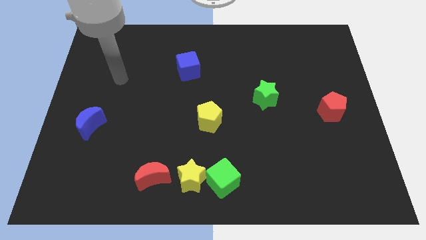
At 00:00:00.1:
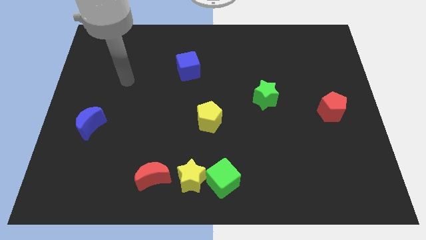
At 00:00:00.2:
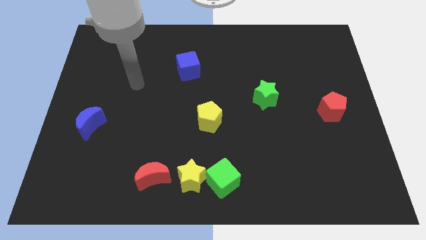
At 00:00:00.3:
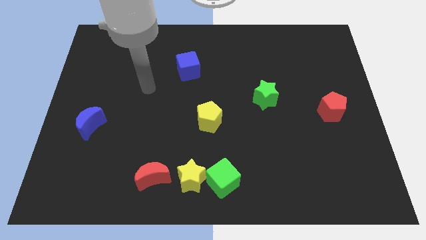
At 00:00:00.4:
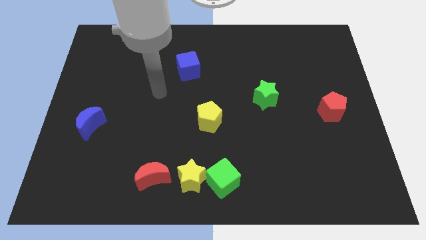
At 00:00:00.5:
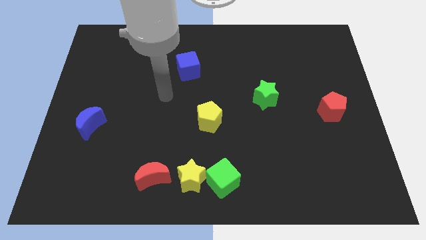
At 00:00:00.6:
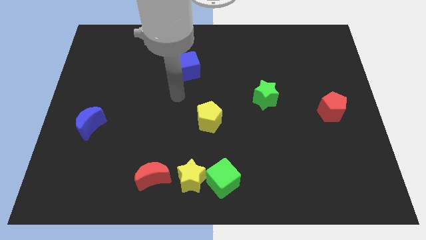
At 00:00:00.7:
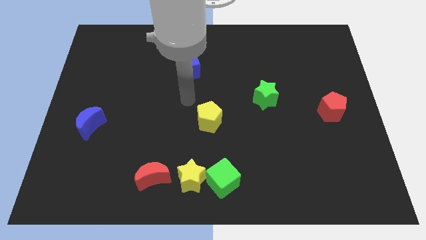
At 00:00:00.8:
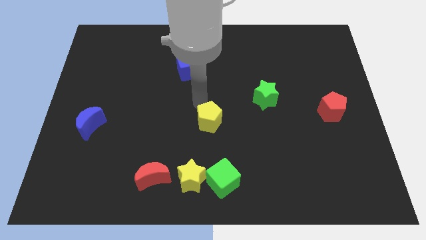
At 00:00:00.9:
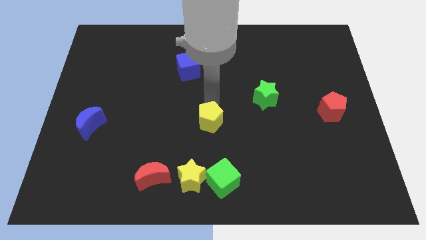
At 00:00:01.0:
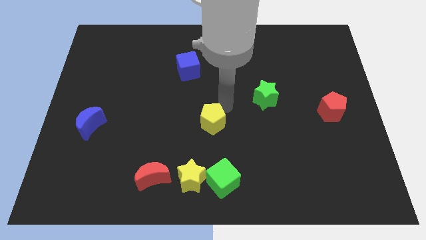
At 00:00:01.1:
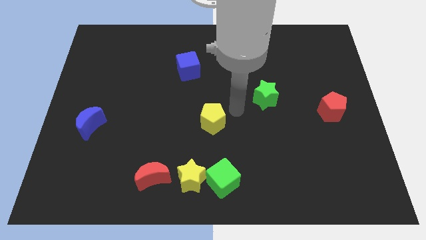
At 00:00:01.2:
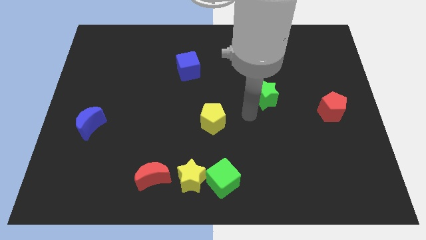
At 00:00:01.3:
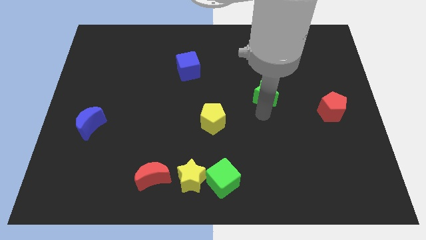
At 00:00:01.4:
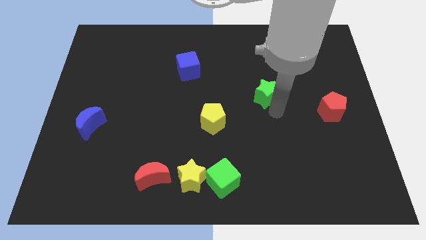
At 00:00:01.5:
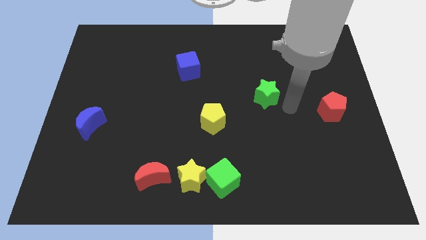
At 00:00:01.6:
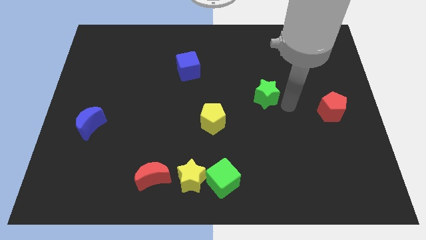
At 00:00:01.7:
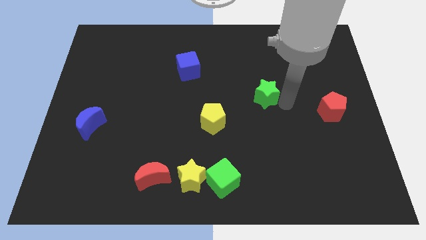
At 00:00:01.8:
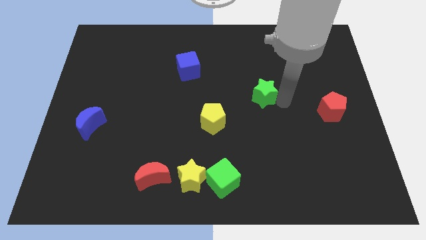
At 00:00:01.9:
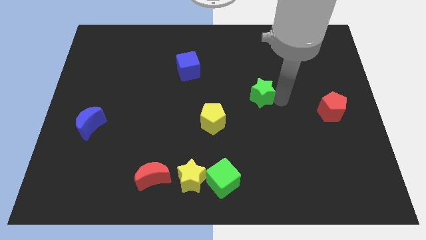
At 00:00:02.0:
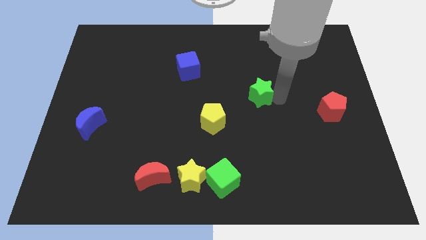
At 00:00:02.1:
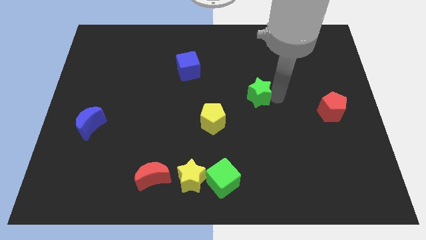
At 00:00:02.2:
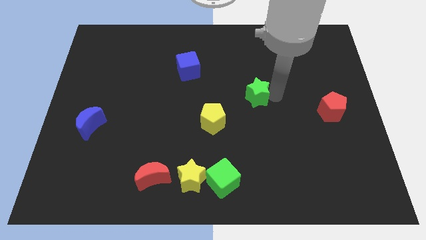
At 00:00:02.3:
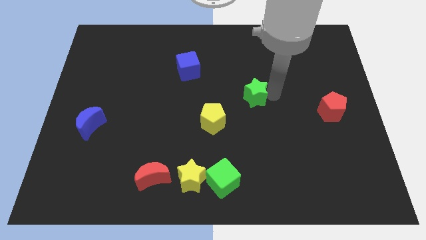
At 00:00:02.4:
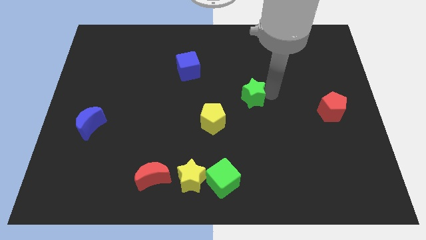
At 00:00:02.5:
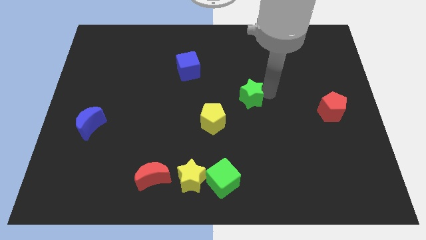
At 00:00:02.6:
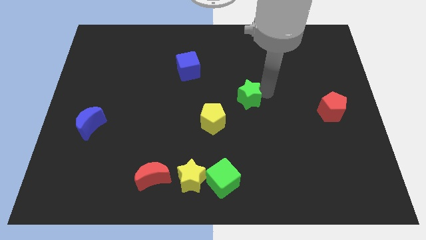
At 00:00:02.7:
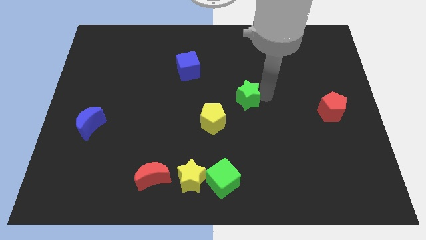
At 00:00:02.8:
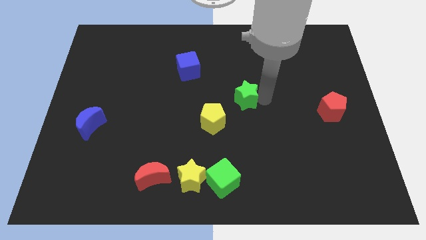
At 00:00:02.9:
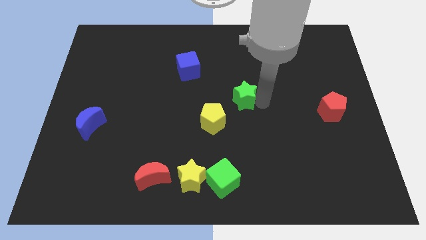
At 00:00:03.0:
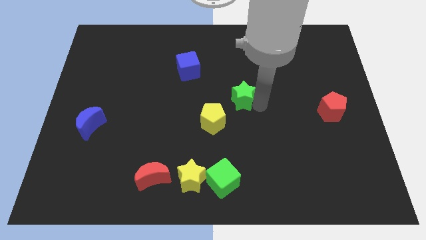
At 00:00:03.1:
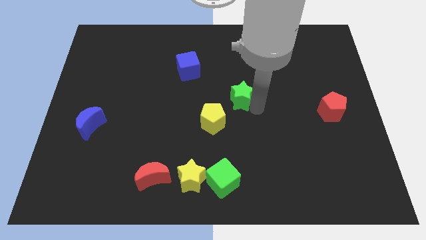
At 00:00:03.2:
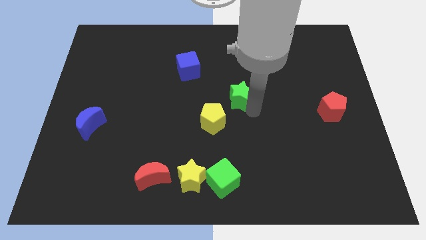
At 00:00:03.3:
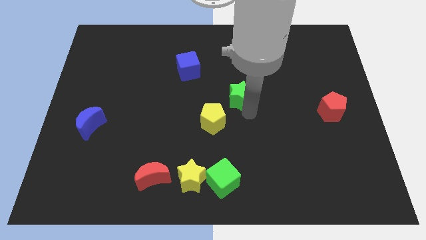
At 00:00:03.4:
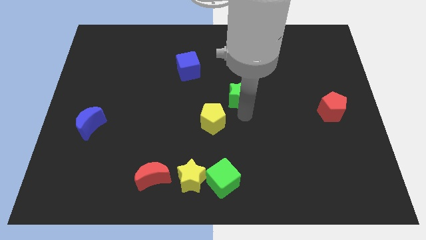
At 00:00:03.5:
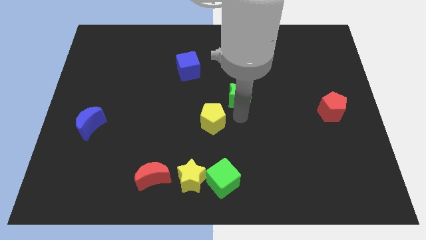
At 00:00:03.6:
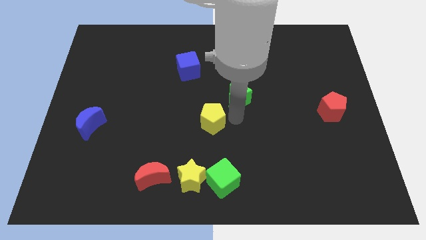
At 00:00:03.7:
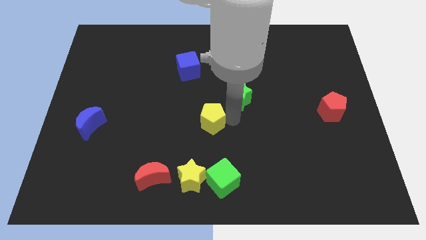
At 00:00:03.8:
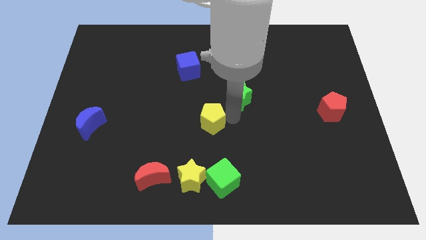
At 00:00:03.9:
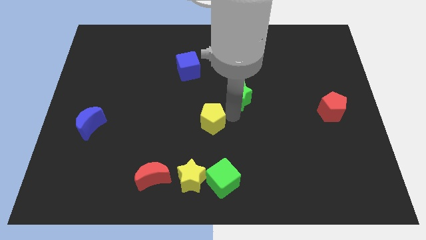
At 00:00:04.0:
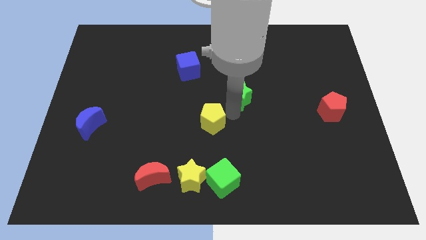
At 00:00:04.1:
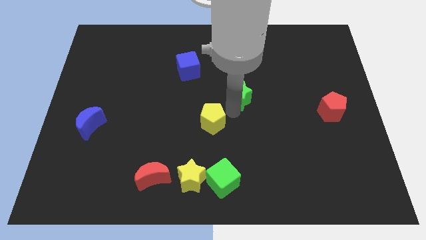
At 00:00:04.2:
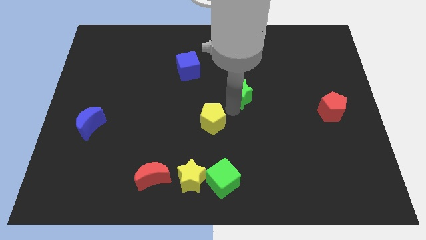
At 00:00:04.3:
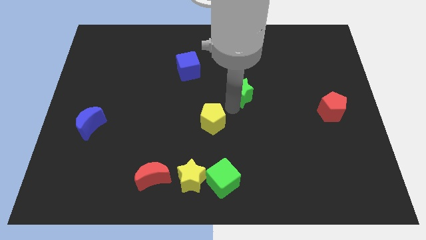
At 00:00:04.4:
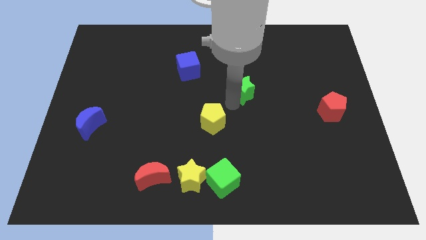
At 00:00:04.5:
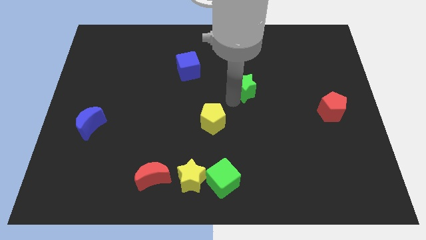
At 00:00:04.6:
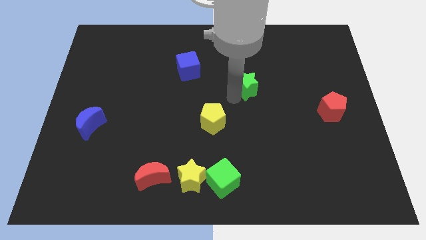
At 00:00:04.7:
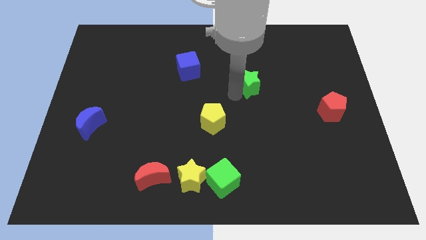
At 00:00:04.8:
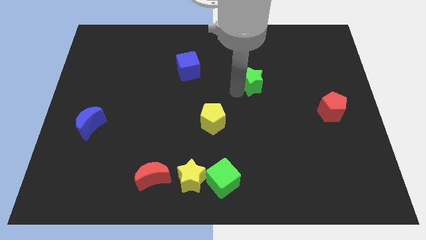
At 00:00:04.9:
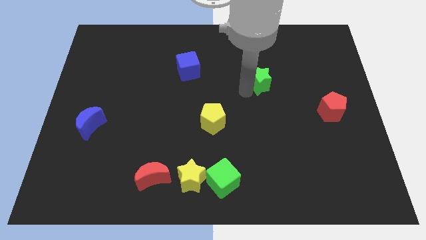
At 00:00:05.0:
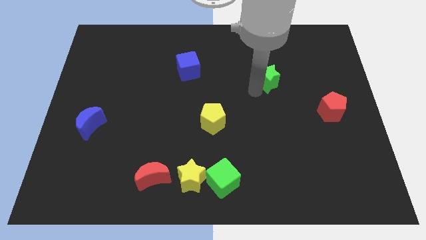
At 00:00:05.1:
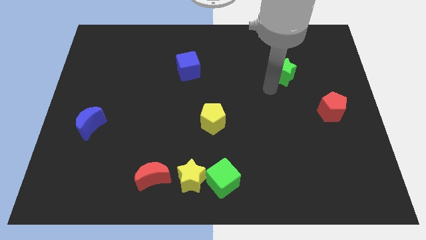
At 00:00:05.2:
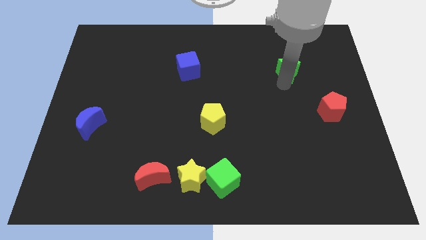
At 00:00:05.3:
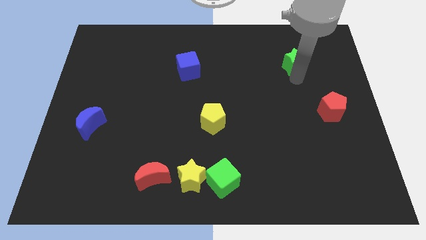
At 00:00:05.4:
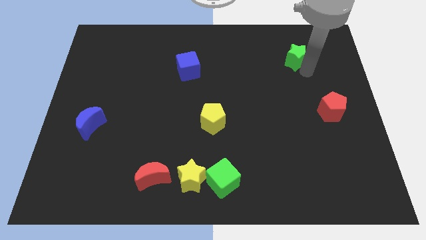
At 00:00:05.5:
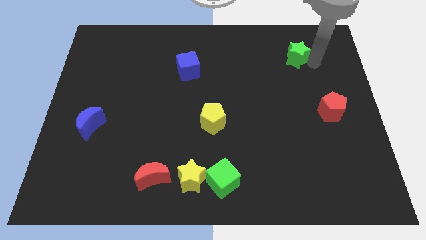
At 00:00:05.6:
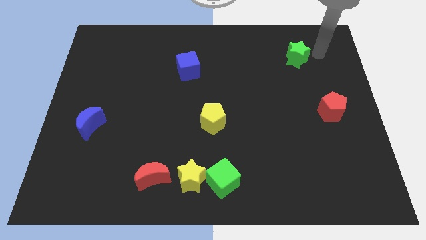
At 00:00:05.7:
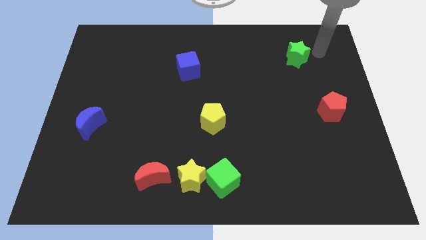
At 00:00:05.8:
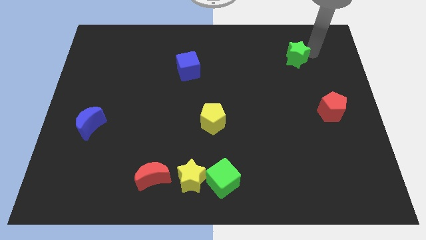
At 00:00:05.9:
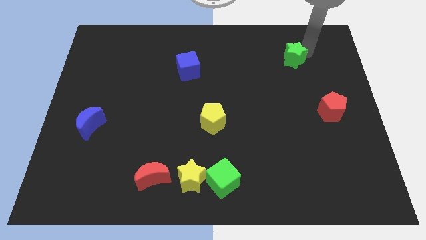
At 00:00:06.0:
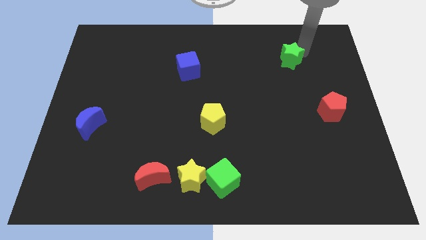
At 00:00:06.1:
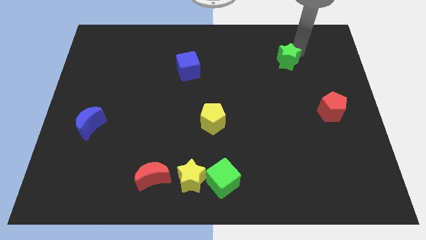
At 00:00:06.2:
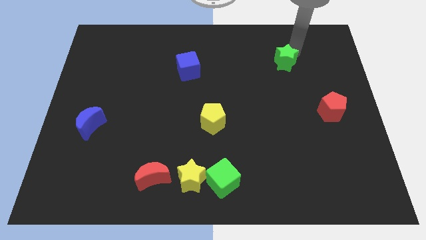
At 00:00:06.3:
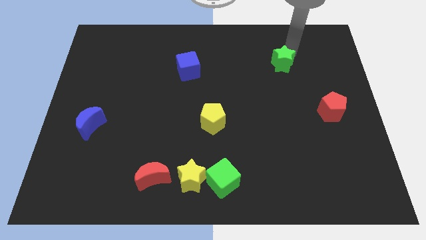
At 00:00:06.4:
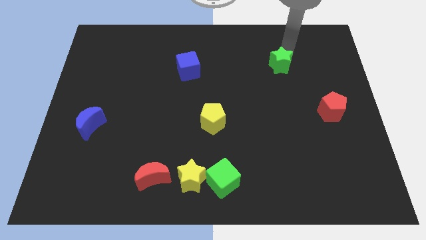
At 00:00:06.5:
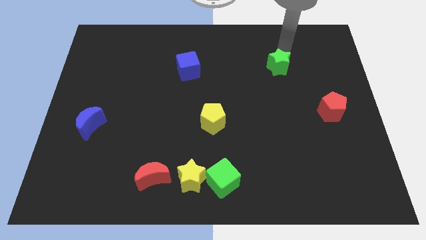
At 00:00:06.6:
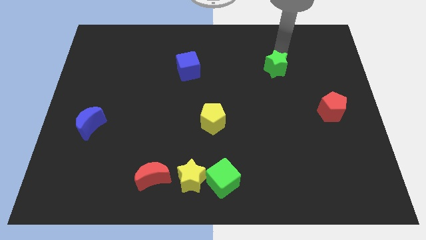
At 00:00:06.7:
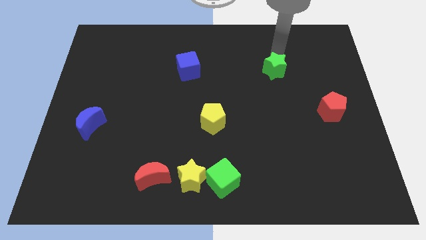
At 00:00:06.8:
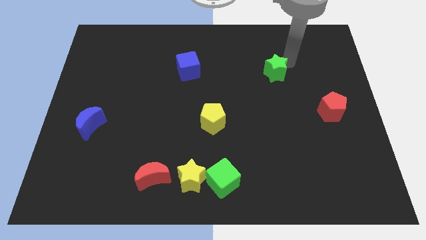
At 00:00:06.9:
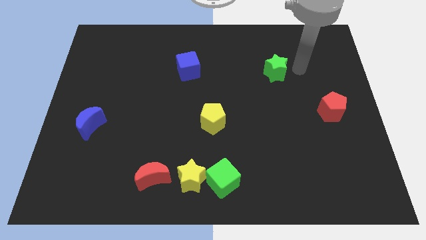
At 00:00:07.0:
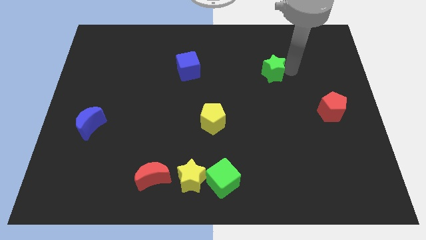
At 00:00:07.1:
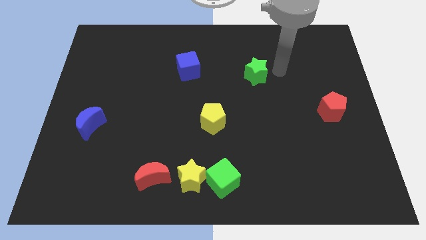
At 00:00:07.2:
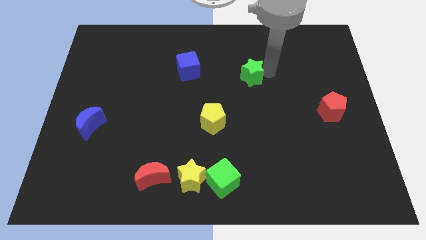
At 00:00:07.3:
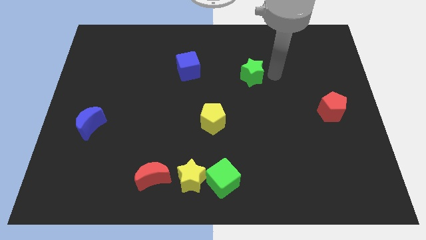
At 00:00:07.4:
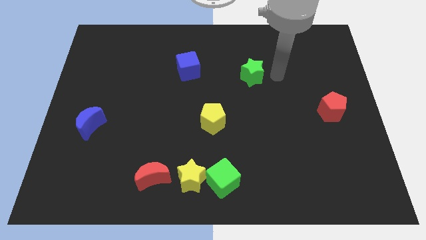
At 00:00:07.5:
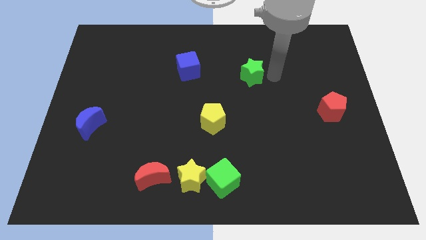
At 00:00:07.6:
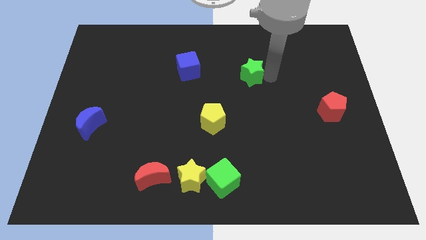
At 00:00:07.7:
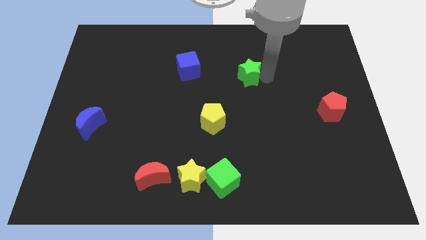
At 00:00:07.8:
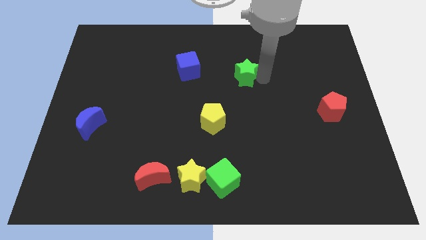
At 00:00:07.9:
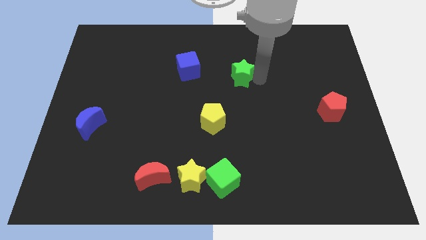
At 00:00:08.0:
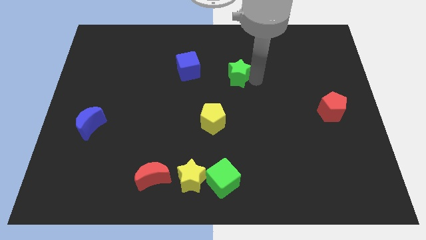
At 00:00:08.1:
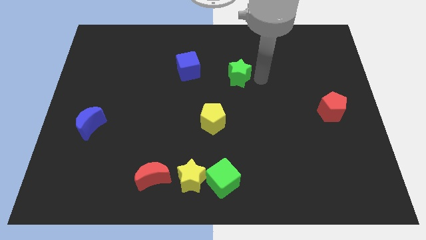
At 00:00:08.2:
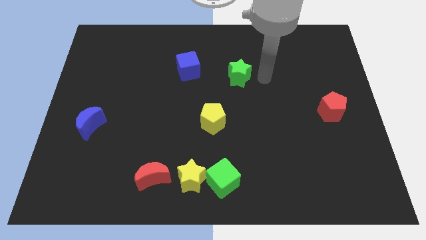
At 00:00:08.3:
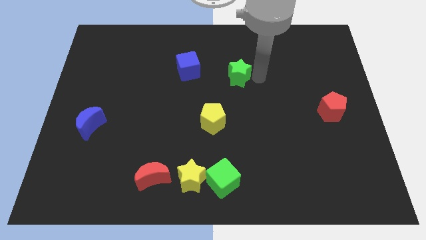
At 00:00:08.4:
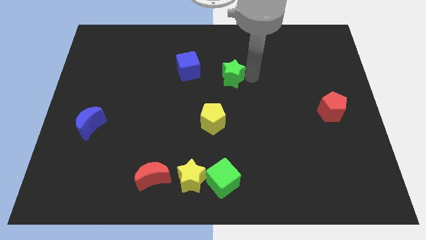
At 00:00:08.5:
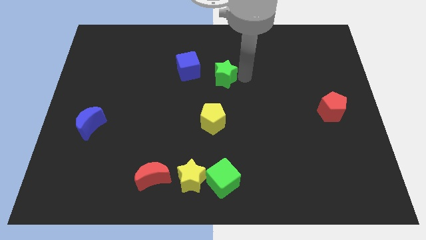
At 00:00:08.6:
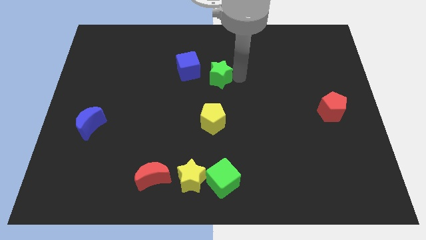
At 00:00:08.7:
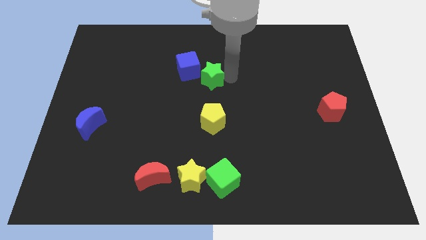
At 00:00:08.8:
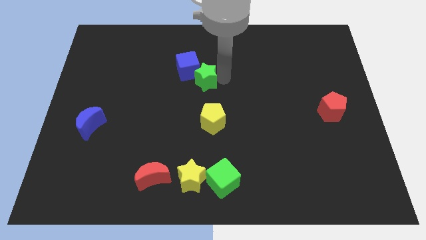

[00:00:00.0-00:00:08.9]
move the green star towards the blue cube
